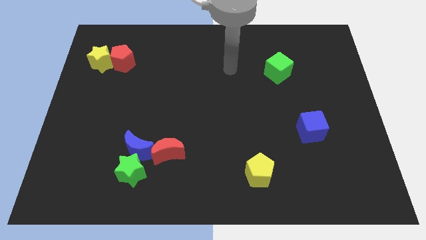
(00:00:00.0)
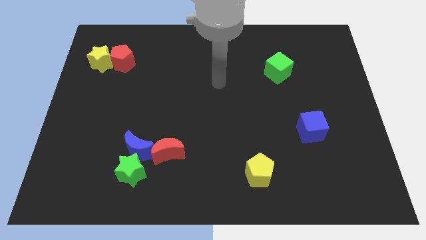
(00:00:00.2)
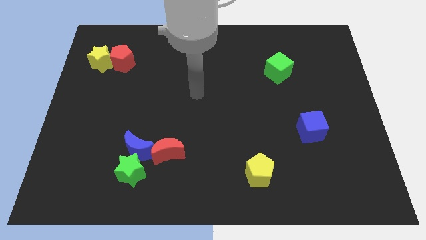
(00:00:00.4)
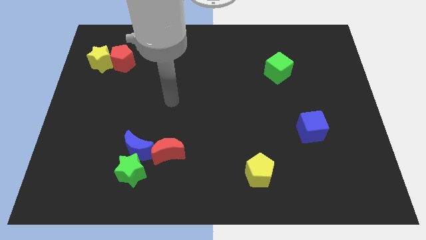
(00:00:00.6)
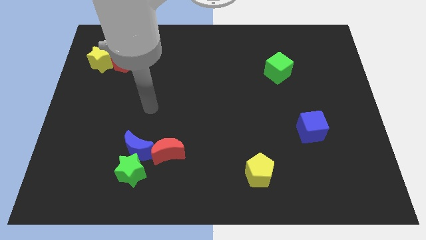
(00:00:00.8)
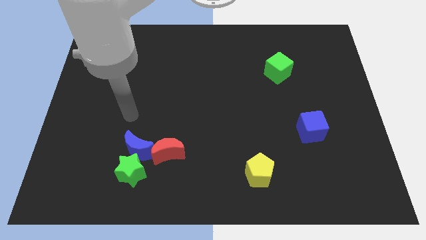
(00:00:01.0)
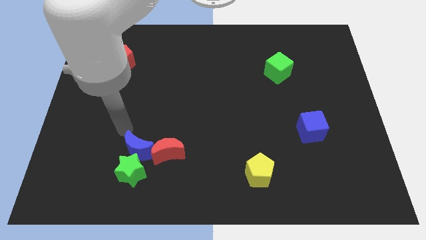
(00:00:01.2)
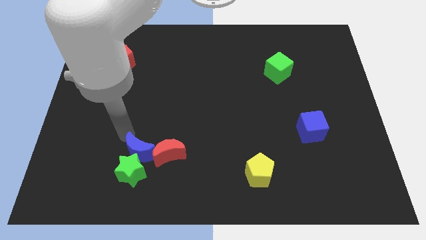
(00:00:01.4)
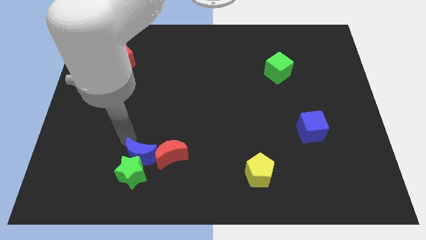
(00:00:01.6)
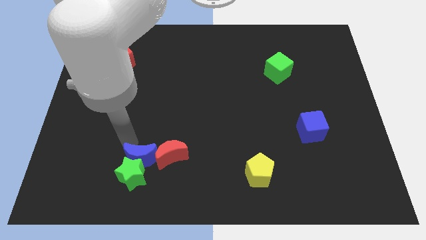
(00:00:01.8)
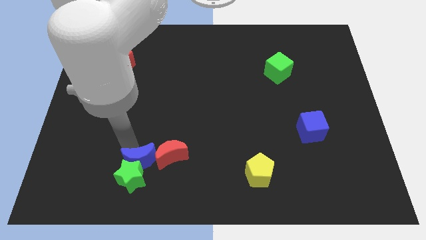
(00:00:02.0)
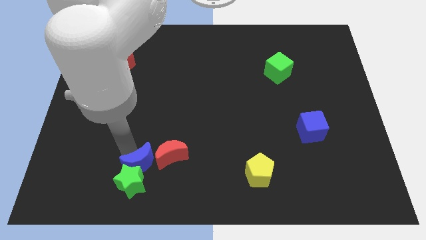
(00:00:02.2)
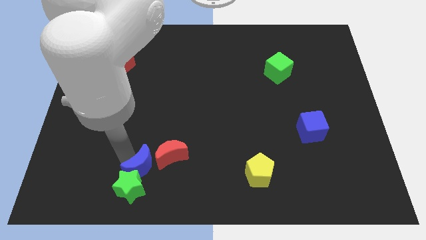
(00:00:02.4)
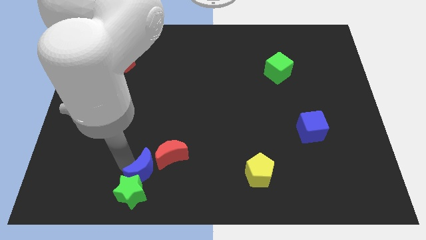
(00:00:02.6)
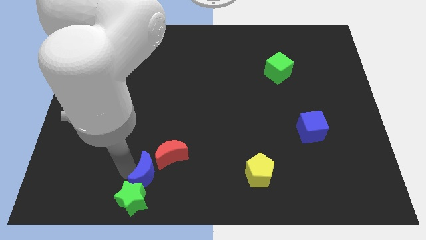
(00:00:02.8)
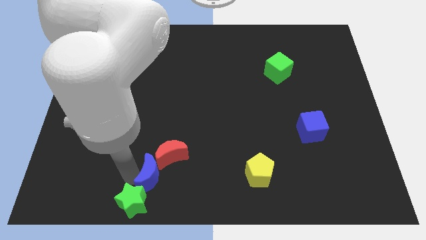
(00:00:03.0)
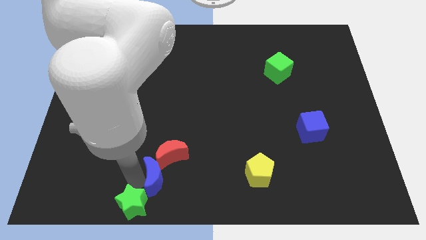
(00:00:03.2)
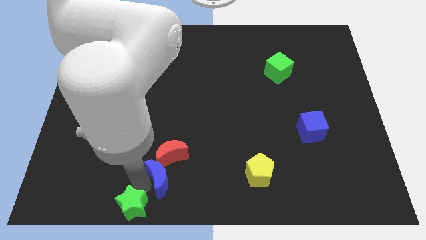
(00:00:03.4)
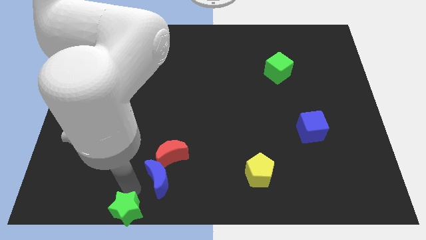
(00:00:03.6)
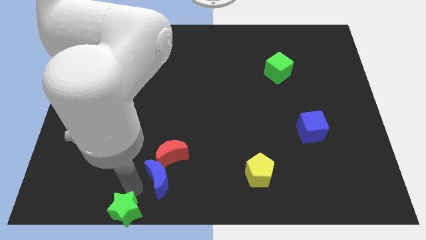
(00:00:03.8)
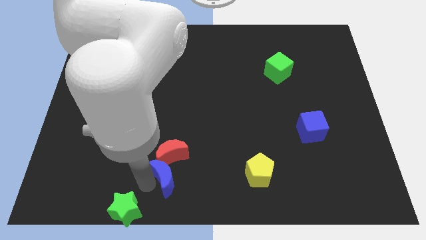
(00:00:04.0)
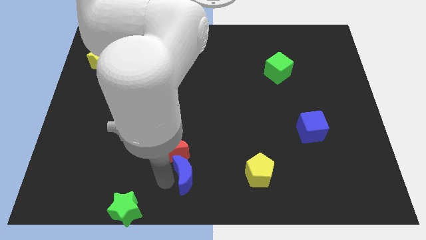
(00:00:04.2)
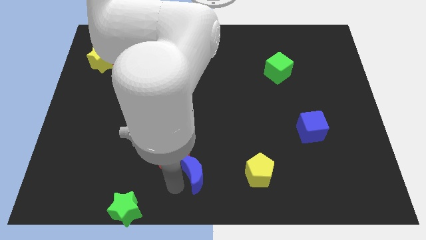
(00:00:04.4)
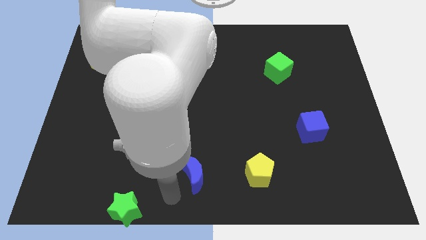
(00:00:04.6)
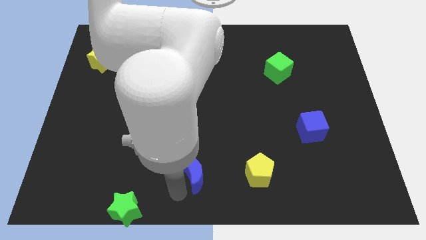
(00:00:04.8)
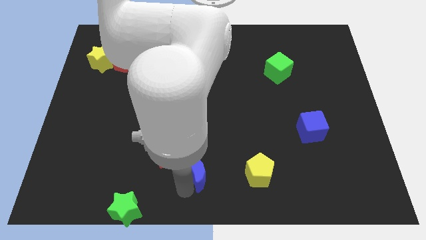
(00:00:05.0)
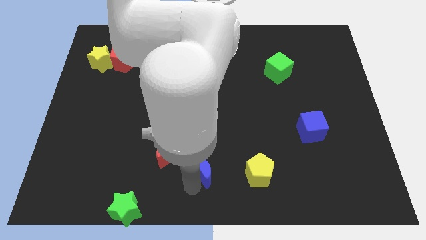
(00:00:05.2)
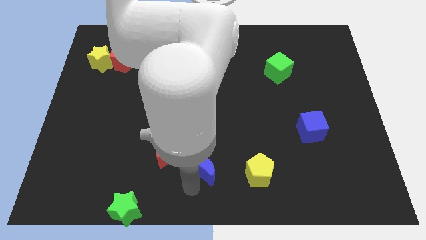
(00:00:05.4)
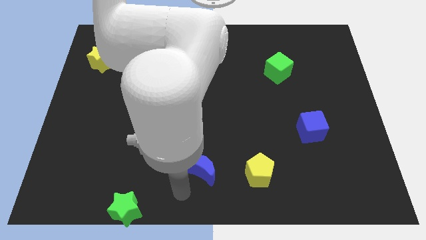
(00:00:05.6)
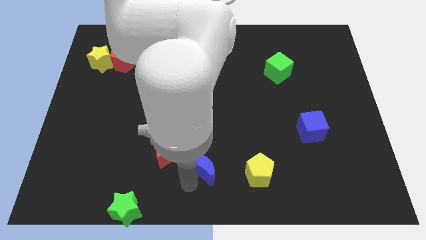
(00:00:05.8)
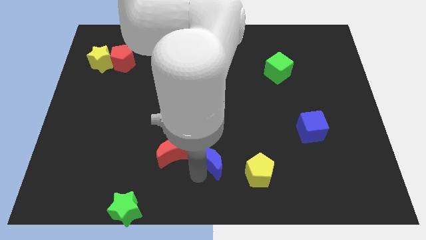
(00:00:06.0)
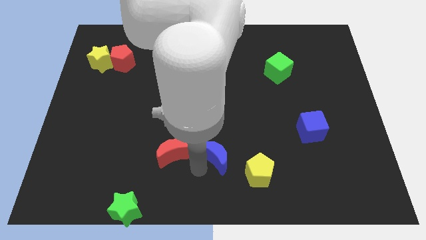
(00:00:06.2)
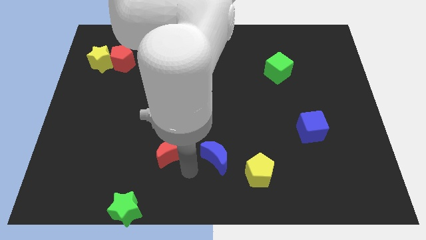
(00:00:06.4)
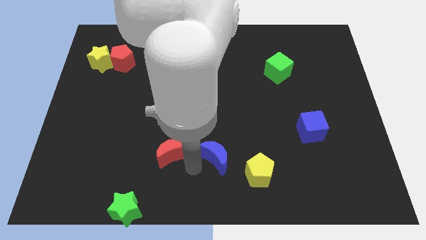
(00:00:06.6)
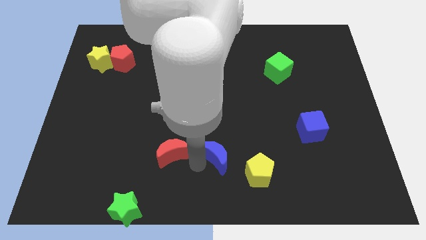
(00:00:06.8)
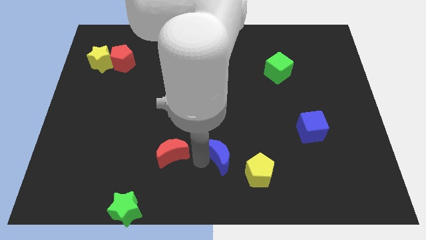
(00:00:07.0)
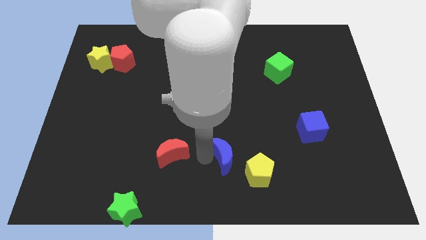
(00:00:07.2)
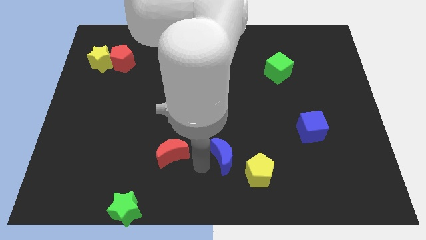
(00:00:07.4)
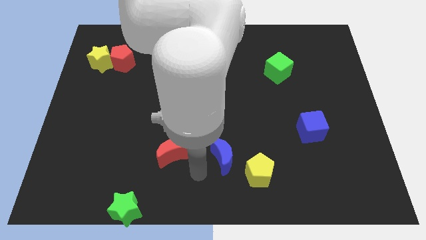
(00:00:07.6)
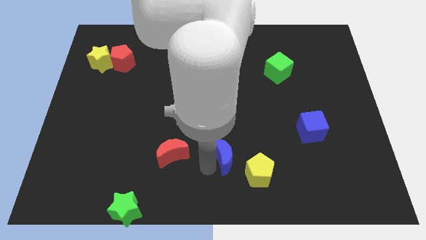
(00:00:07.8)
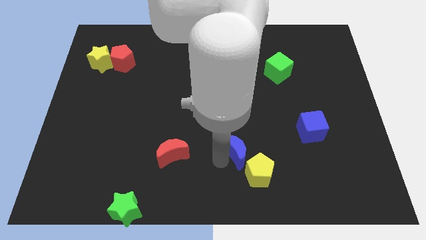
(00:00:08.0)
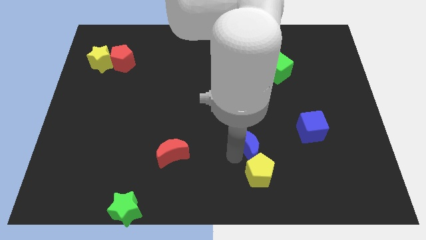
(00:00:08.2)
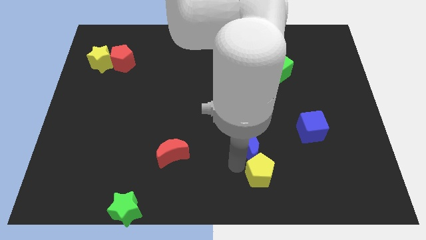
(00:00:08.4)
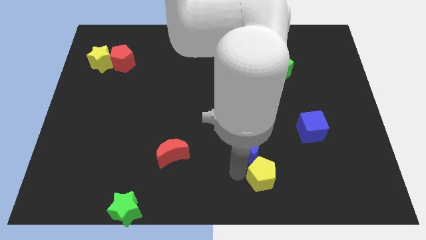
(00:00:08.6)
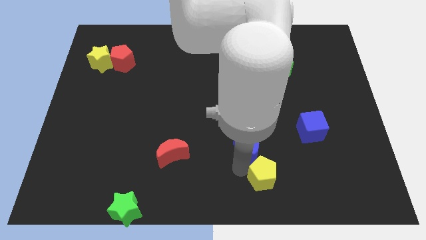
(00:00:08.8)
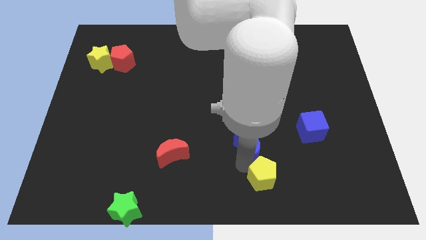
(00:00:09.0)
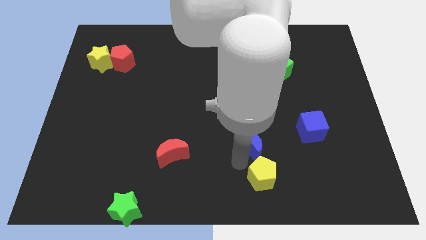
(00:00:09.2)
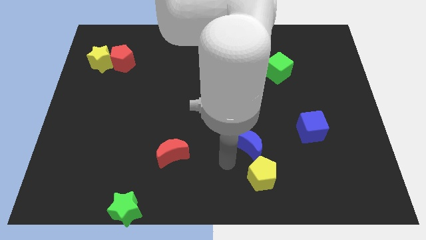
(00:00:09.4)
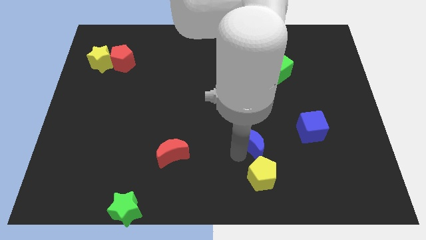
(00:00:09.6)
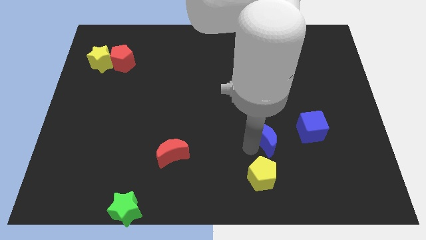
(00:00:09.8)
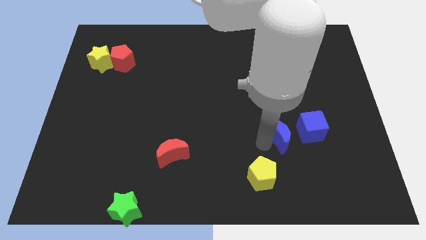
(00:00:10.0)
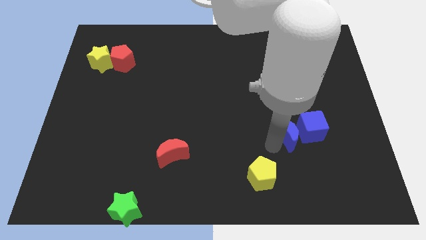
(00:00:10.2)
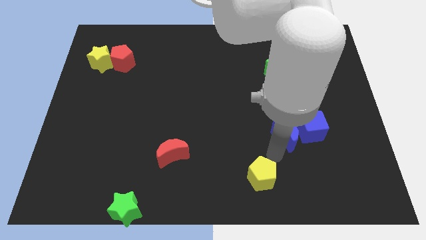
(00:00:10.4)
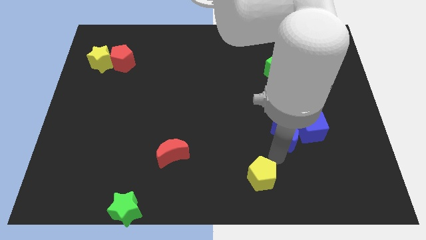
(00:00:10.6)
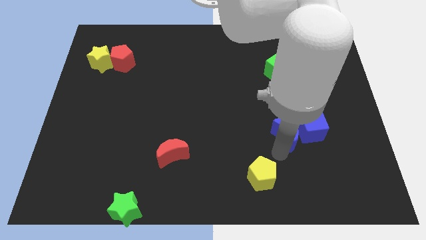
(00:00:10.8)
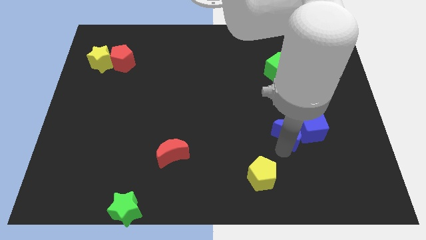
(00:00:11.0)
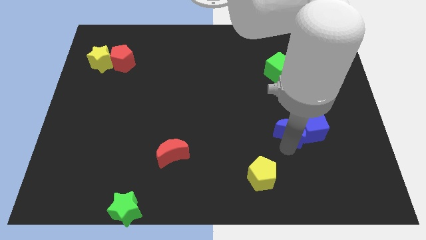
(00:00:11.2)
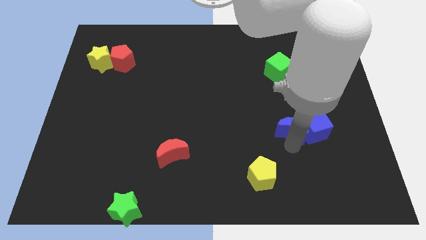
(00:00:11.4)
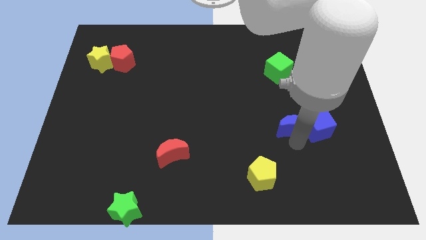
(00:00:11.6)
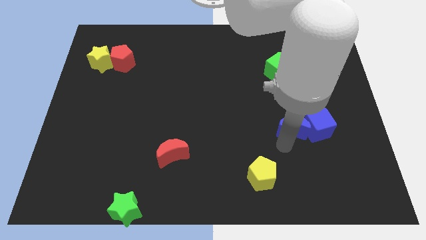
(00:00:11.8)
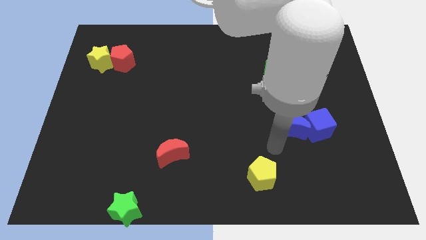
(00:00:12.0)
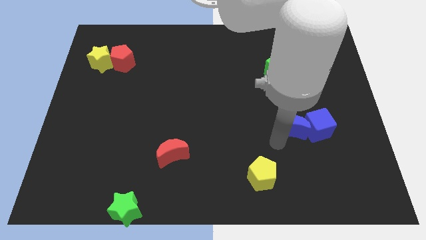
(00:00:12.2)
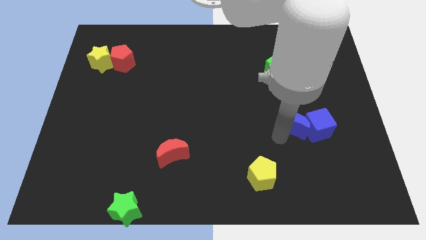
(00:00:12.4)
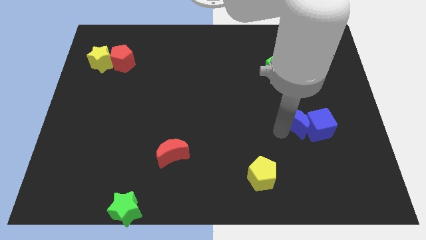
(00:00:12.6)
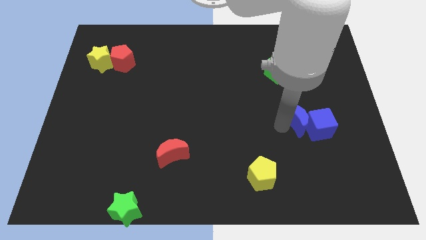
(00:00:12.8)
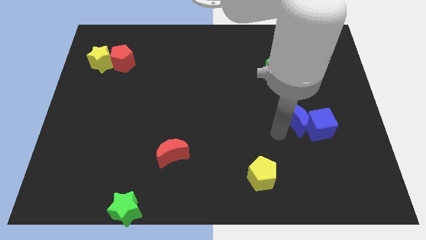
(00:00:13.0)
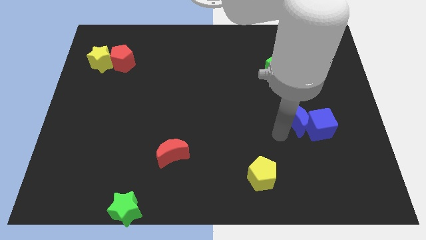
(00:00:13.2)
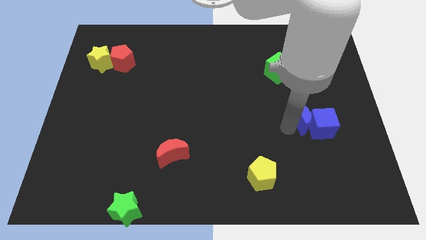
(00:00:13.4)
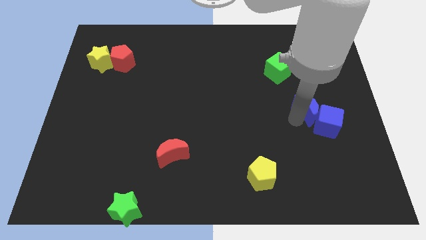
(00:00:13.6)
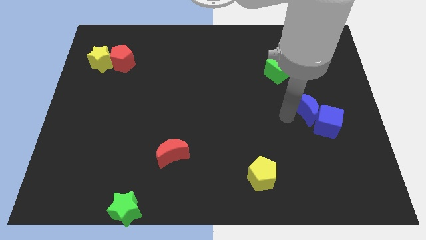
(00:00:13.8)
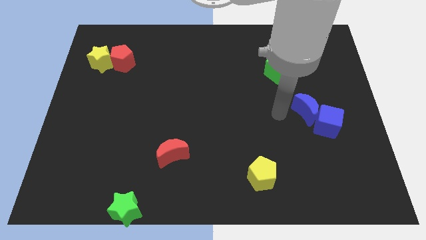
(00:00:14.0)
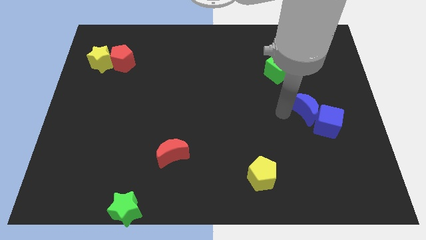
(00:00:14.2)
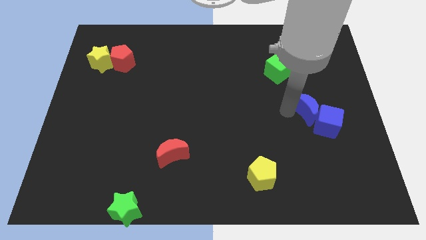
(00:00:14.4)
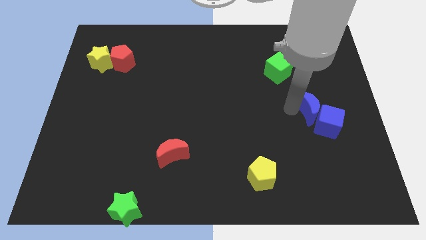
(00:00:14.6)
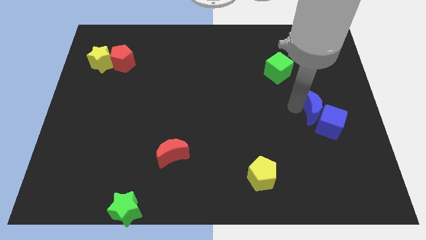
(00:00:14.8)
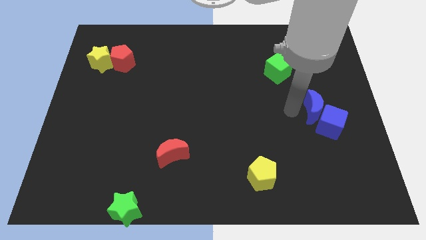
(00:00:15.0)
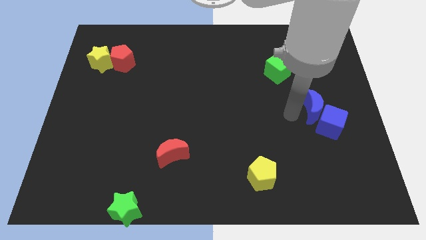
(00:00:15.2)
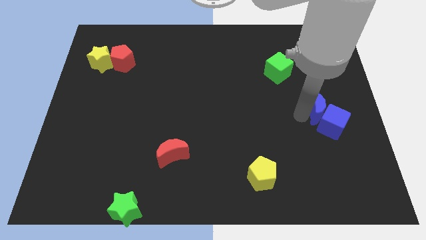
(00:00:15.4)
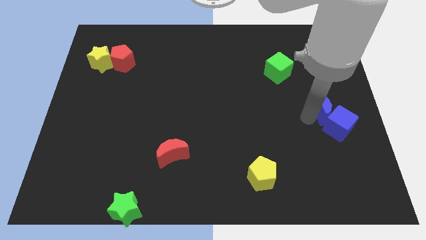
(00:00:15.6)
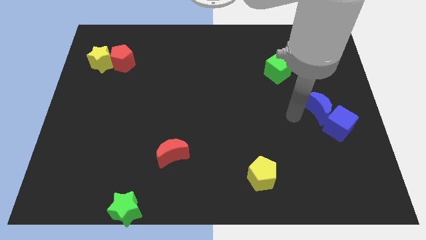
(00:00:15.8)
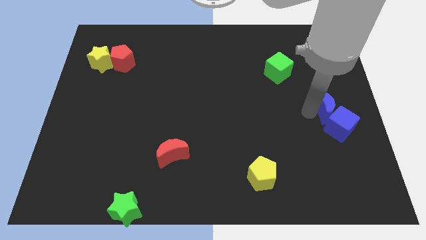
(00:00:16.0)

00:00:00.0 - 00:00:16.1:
slide the blue moon to the center right
